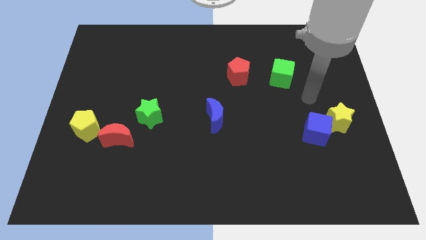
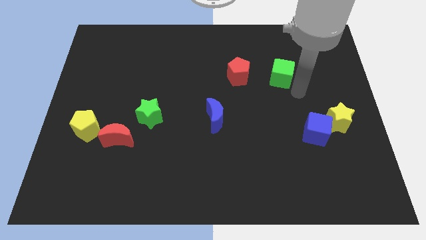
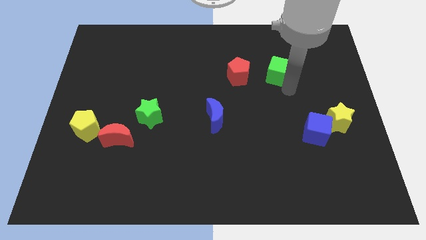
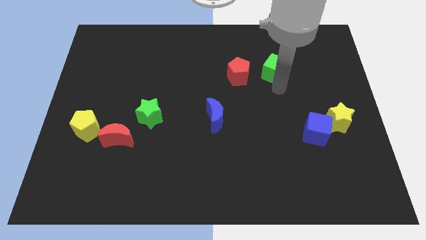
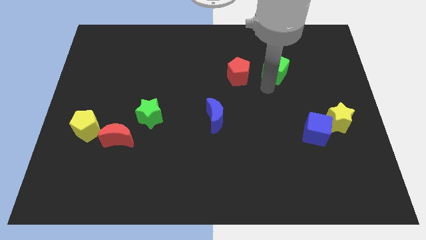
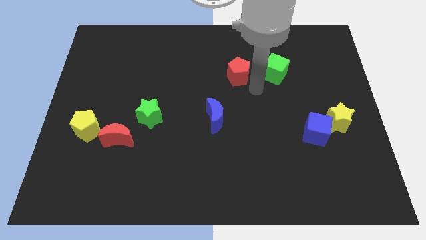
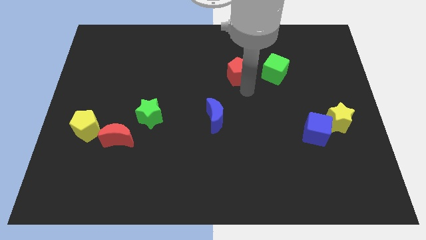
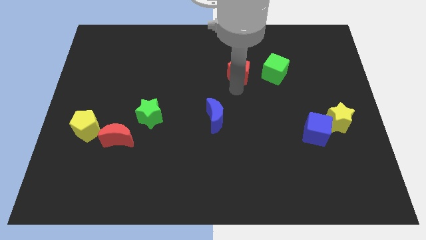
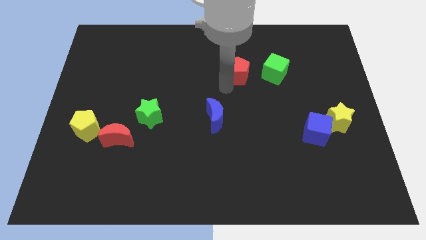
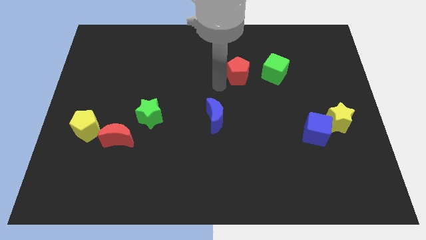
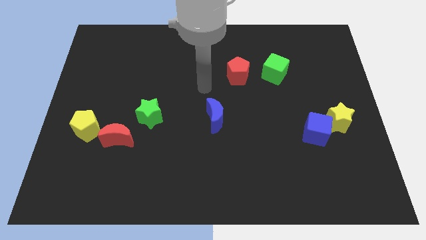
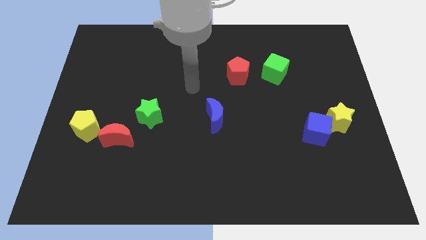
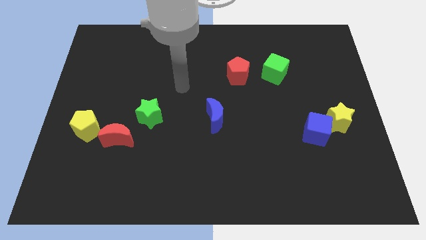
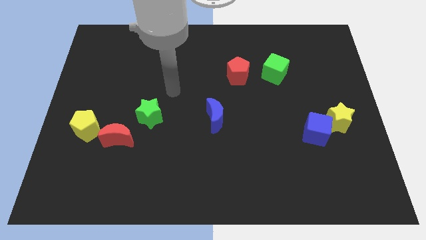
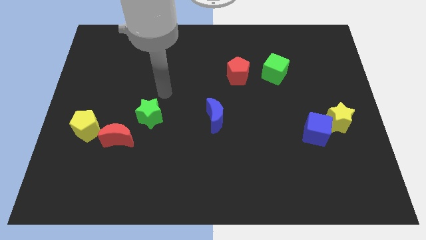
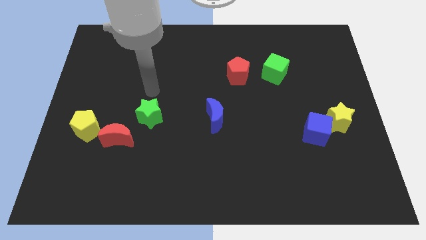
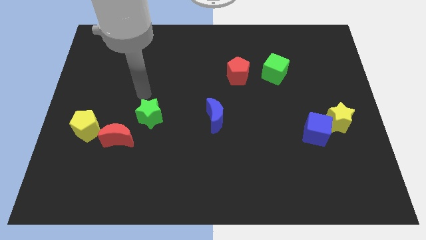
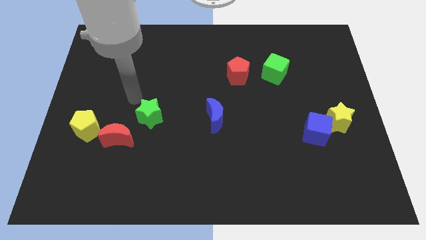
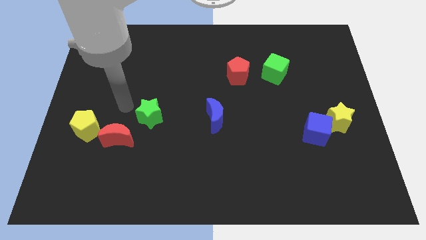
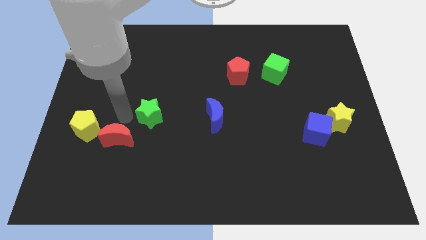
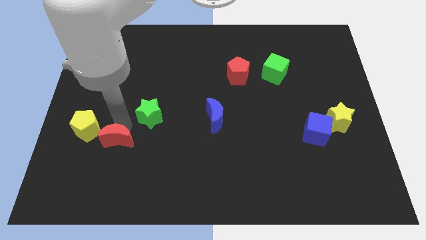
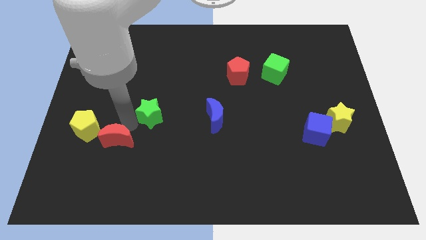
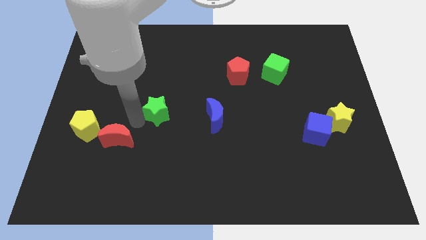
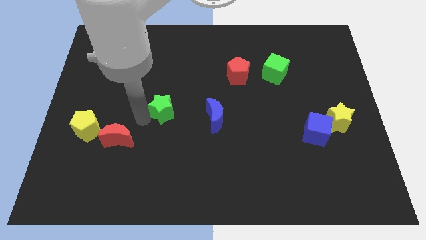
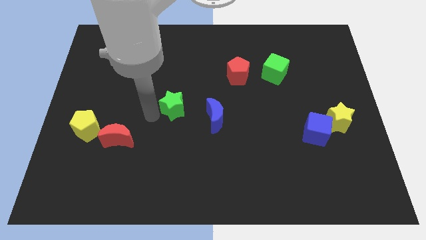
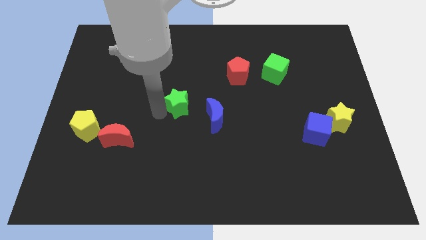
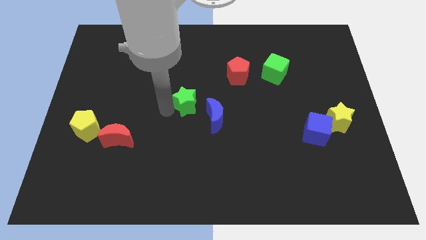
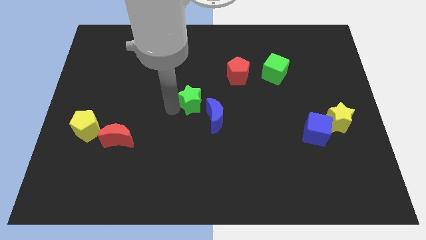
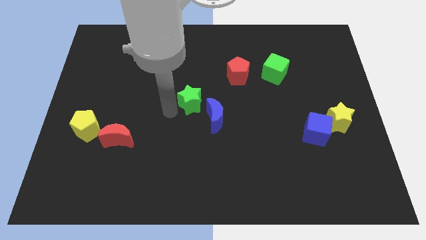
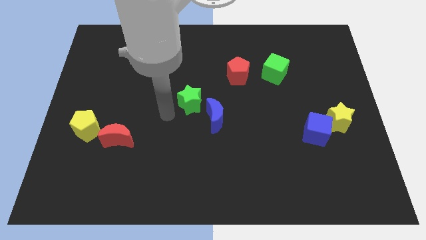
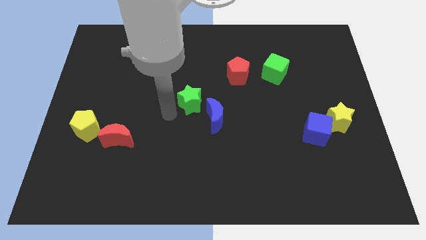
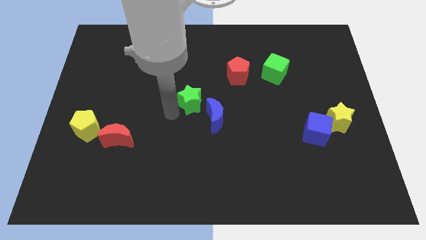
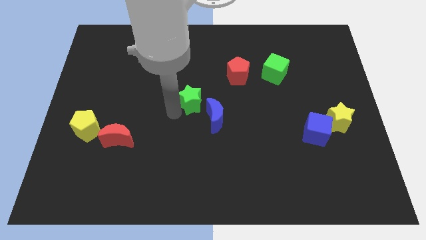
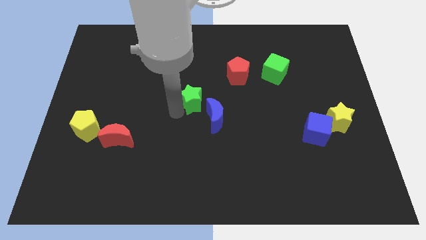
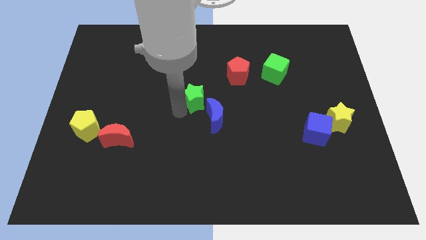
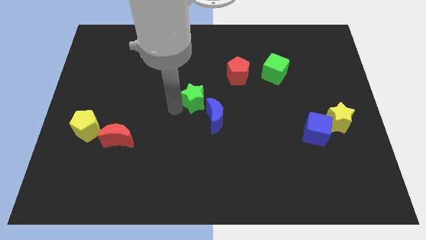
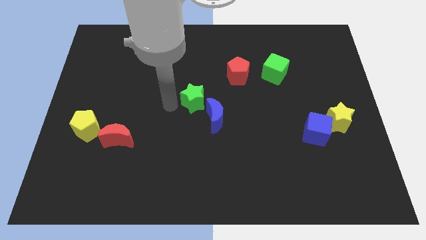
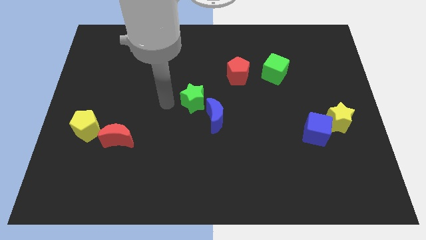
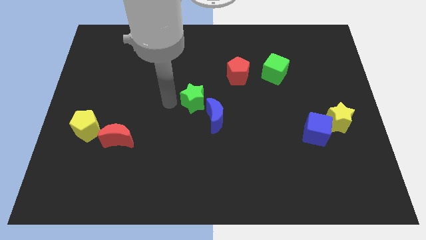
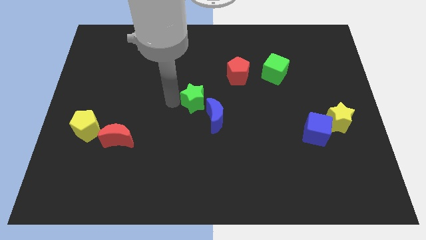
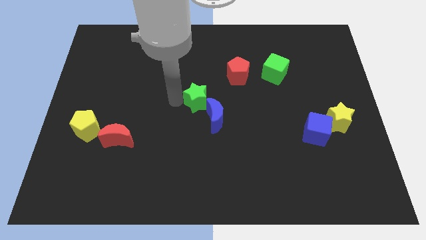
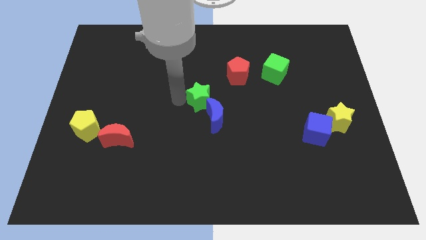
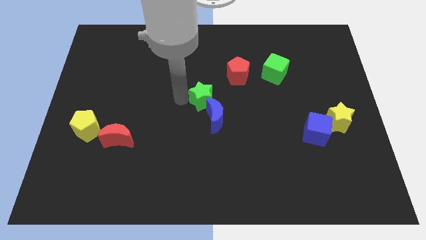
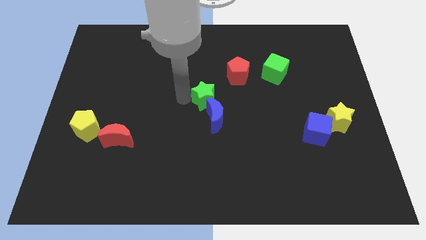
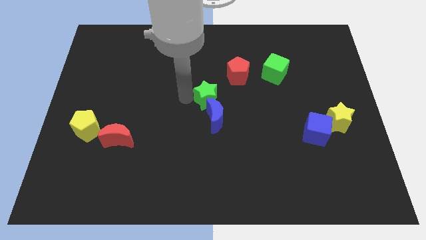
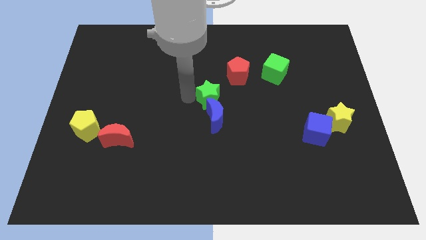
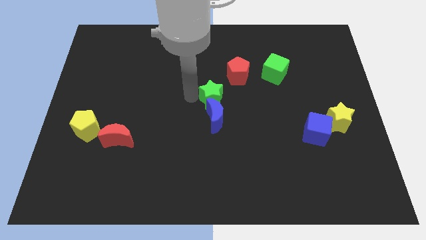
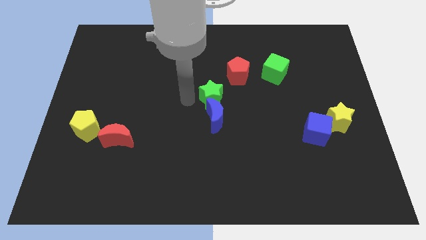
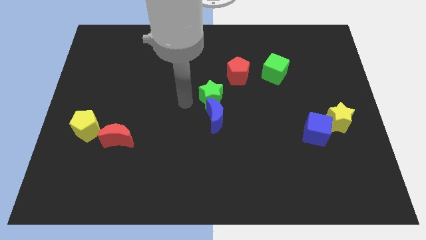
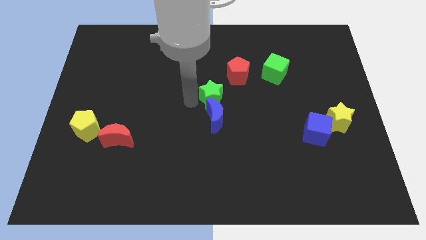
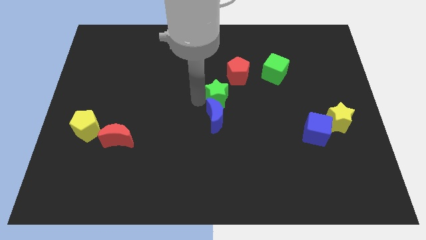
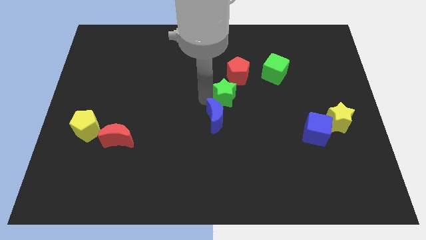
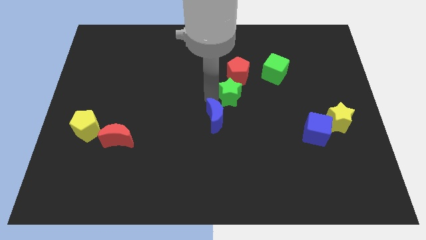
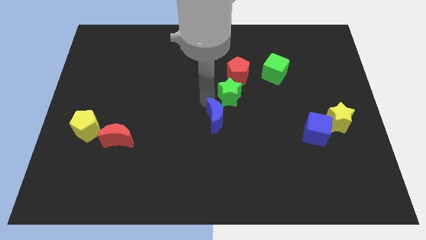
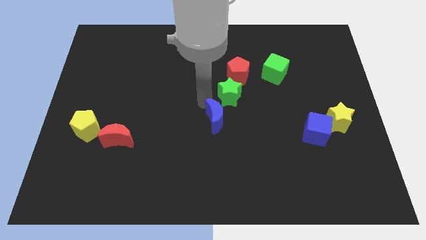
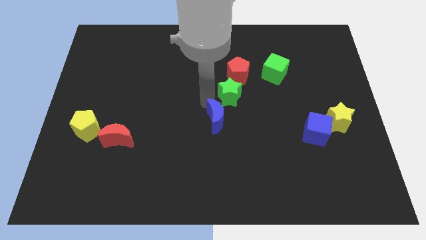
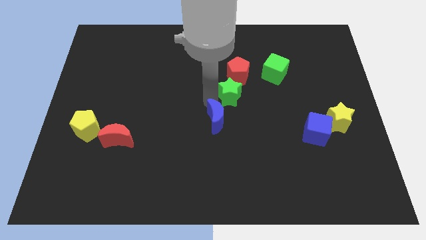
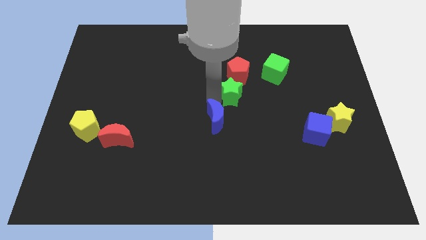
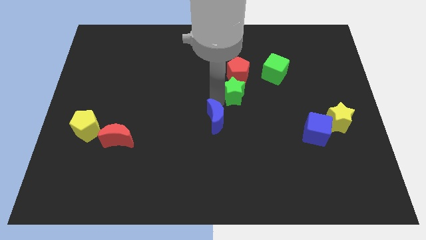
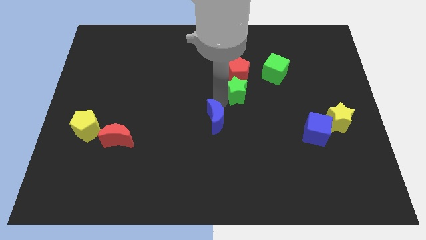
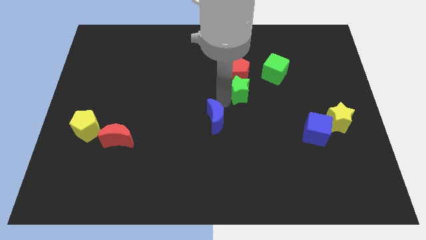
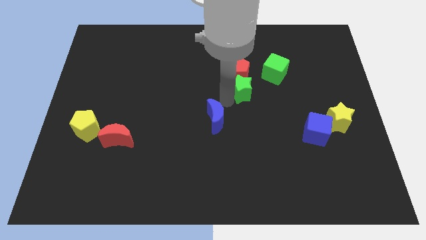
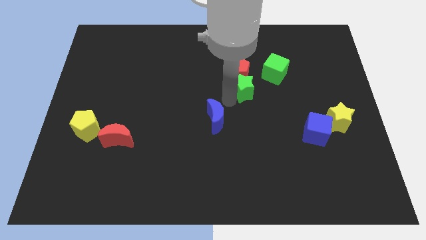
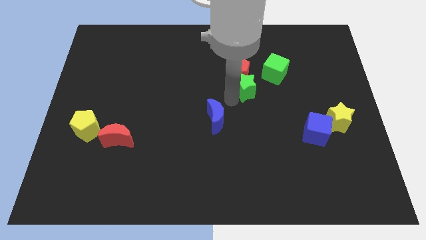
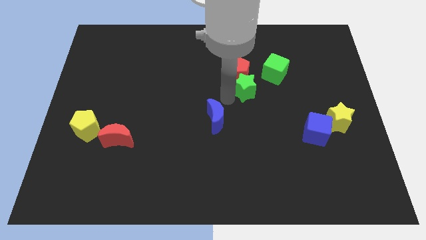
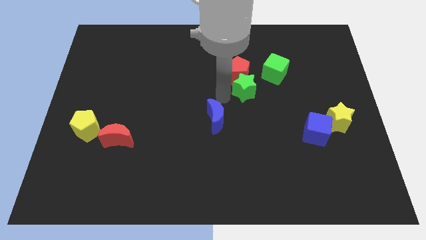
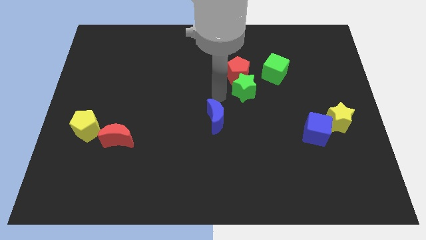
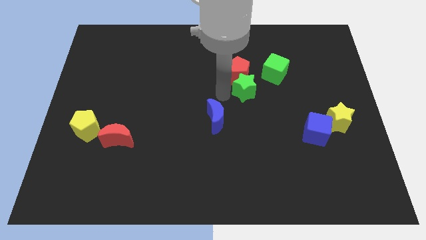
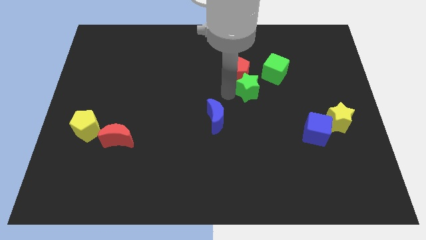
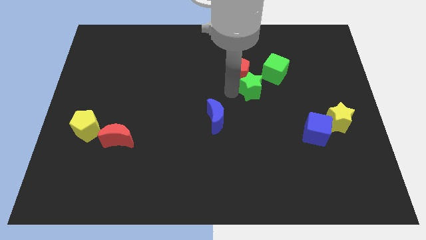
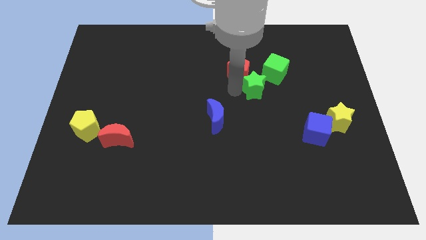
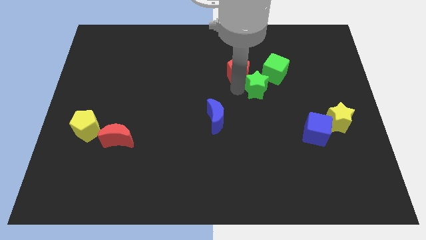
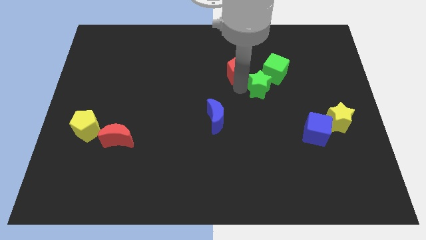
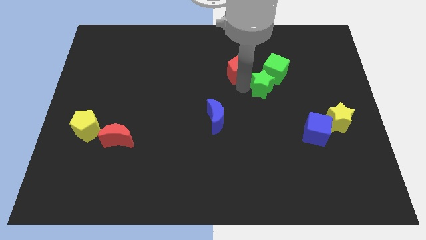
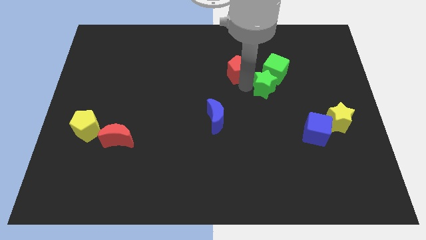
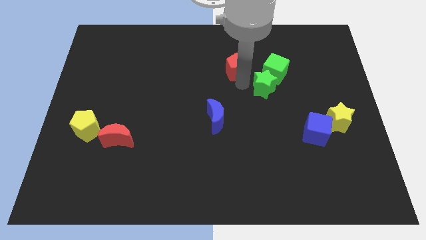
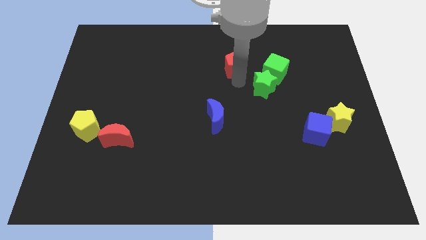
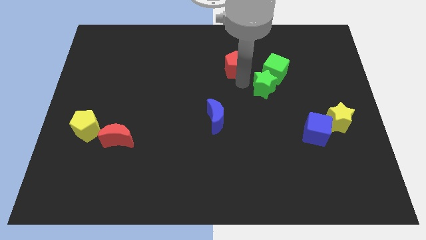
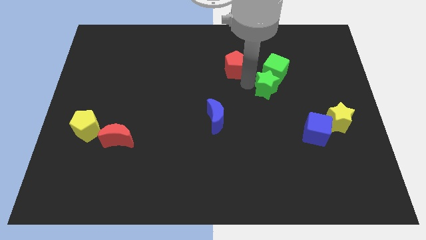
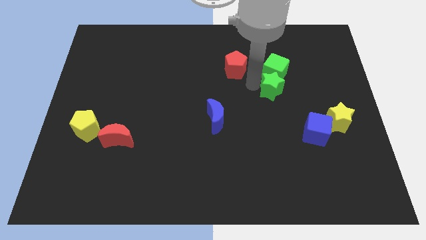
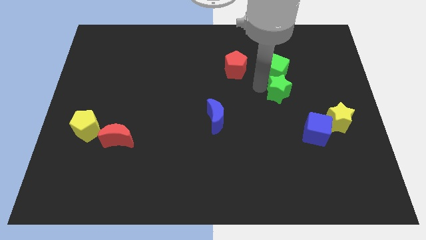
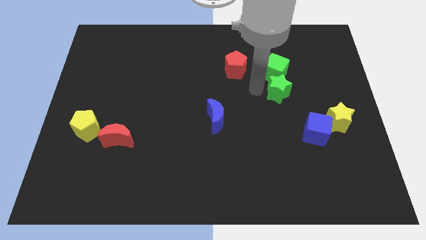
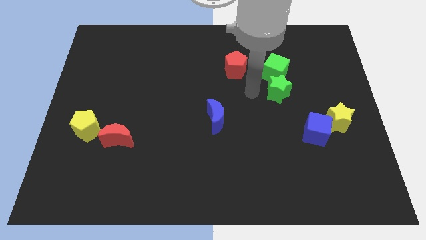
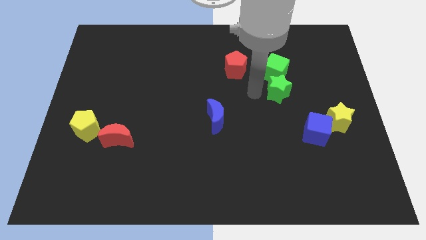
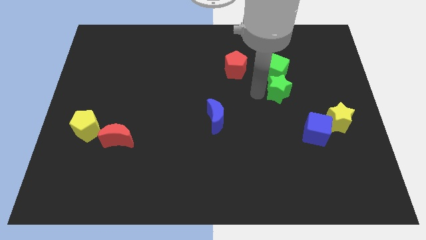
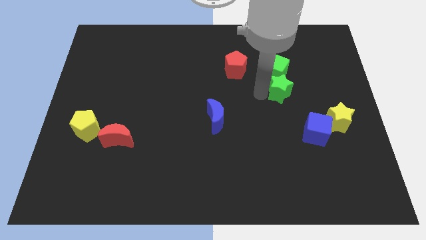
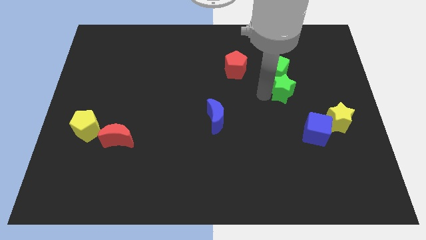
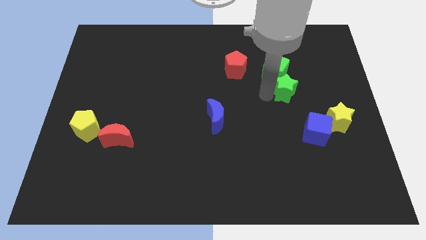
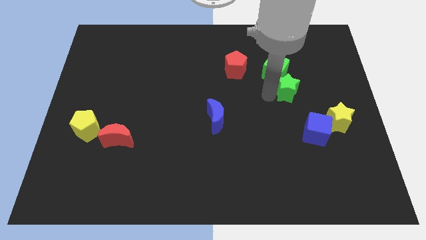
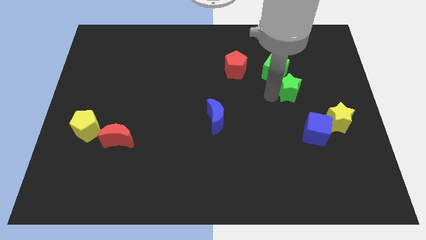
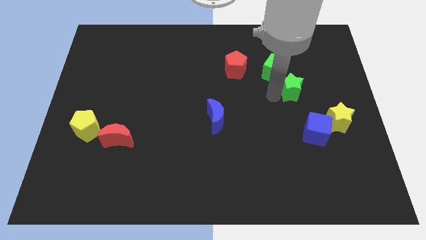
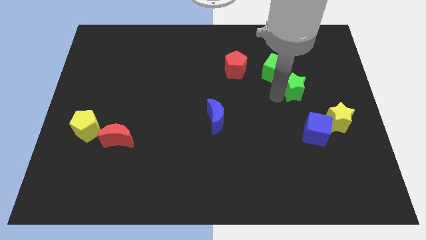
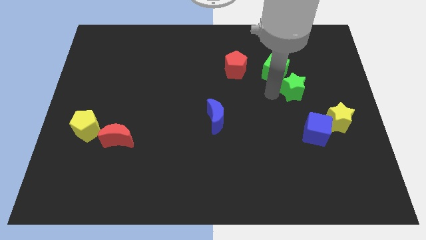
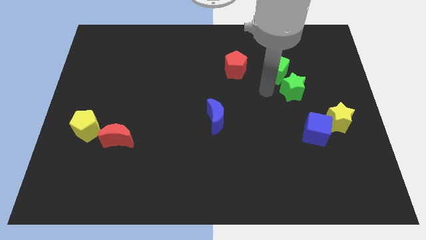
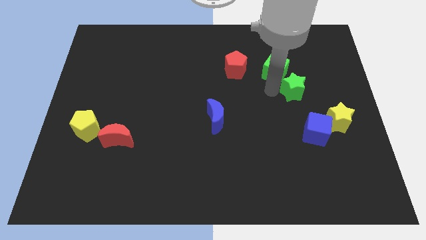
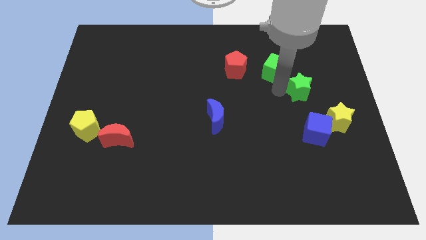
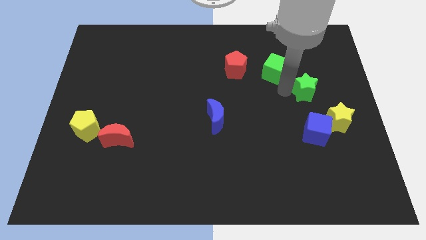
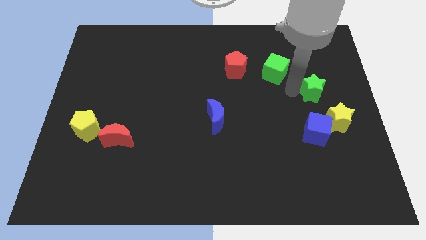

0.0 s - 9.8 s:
move the green star above the yellow star
